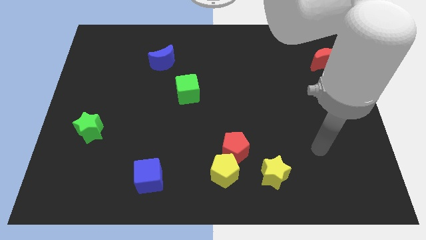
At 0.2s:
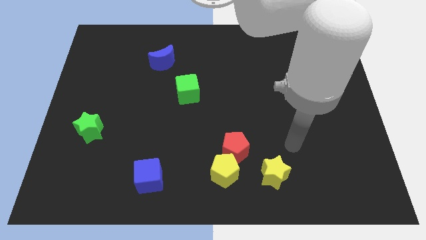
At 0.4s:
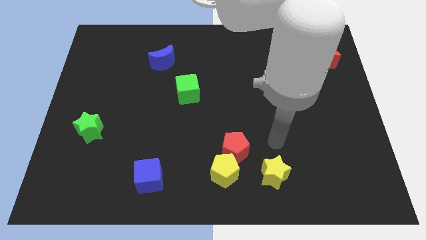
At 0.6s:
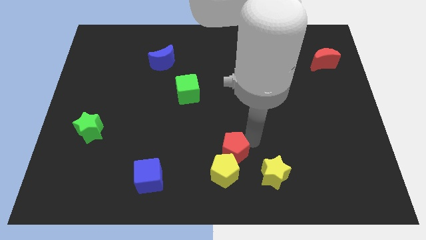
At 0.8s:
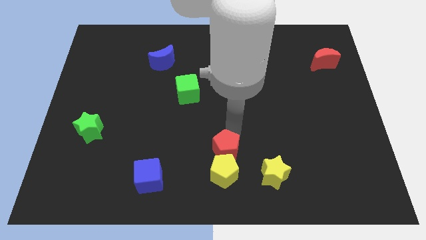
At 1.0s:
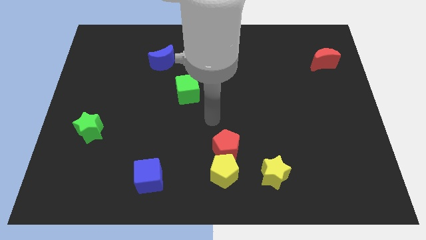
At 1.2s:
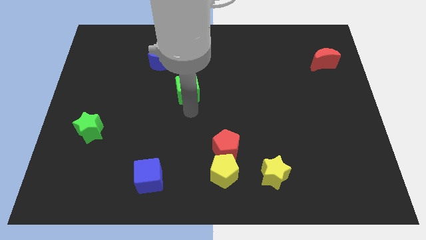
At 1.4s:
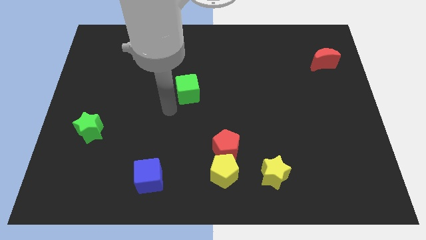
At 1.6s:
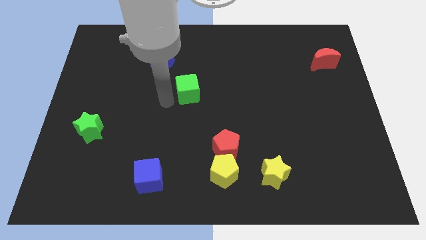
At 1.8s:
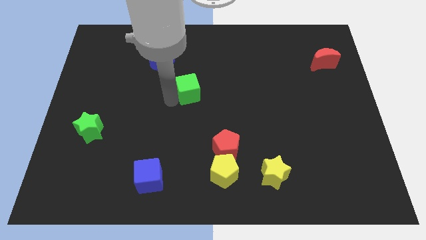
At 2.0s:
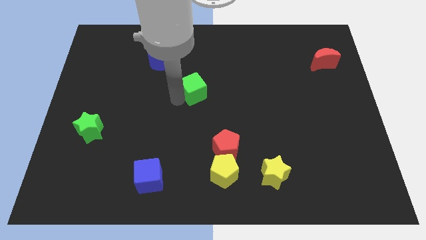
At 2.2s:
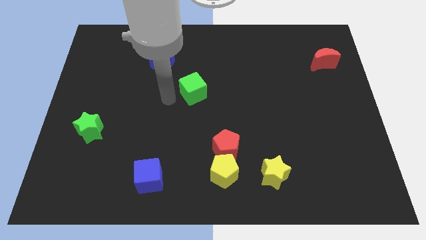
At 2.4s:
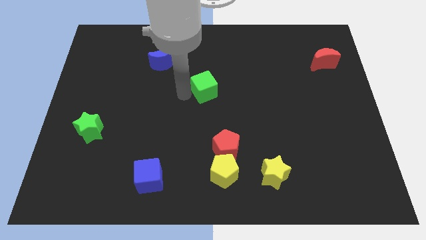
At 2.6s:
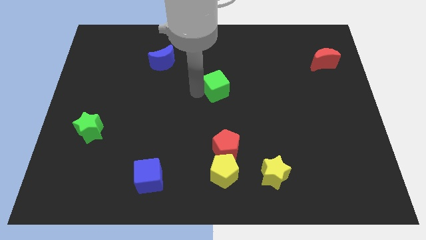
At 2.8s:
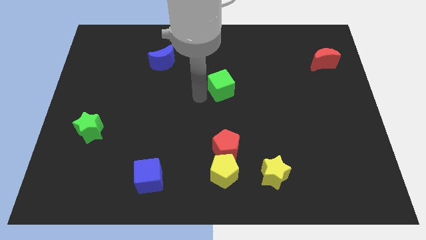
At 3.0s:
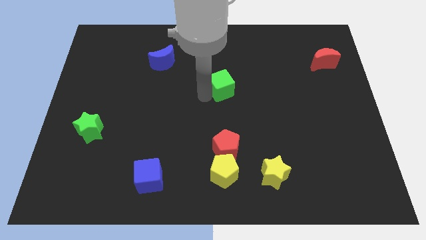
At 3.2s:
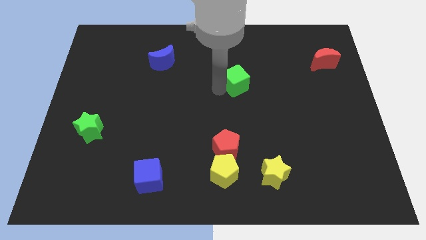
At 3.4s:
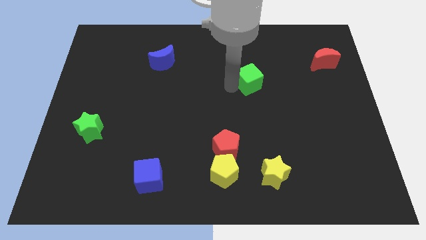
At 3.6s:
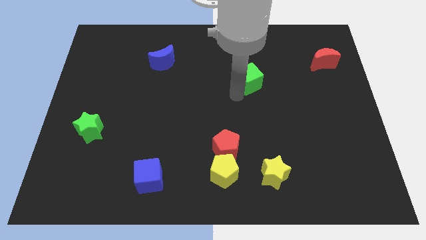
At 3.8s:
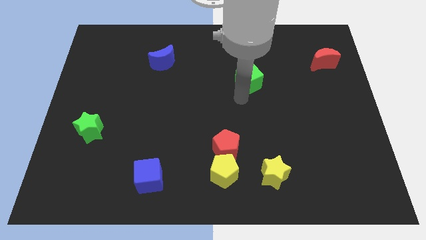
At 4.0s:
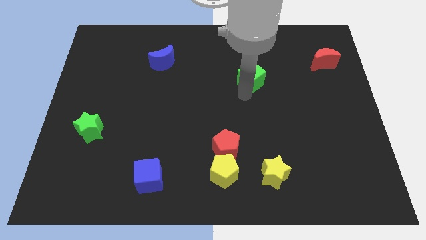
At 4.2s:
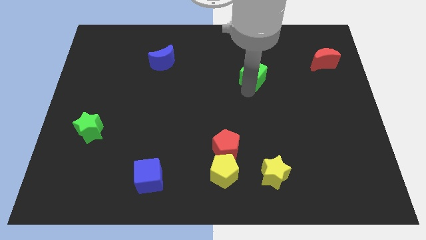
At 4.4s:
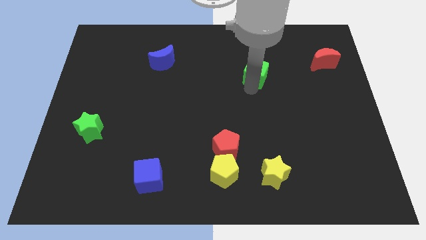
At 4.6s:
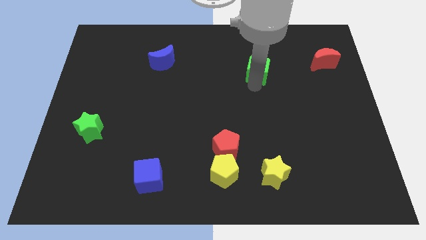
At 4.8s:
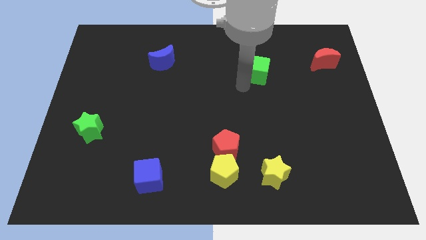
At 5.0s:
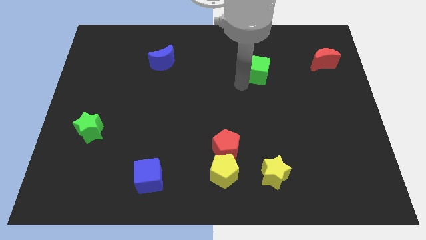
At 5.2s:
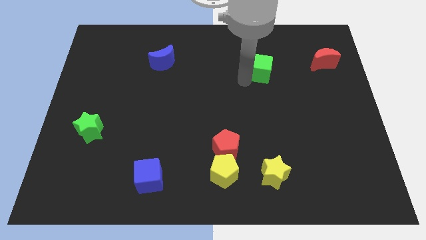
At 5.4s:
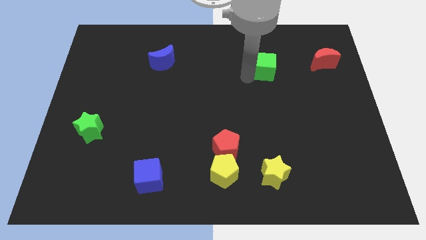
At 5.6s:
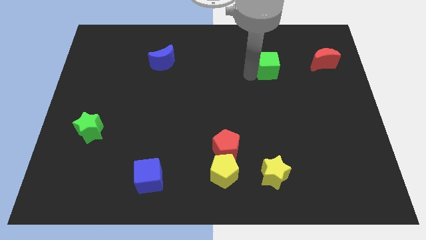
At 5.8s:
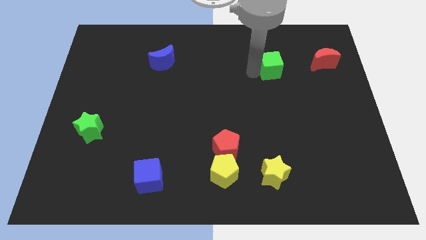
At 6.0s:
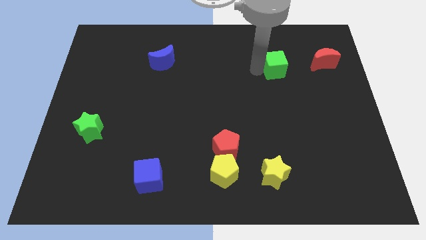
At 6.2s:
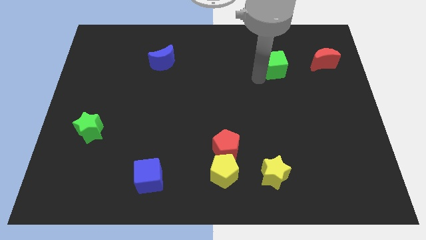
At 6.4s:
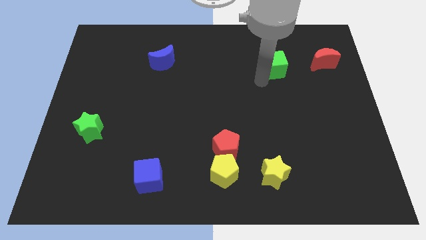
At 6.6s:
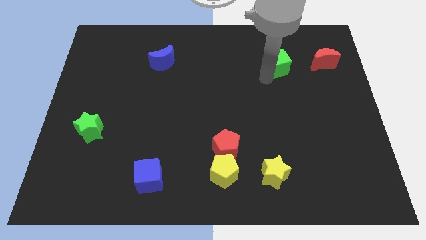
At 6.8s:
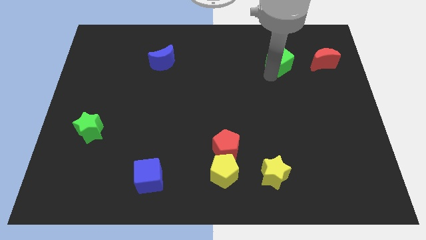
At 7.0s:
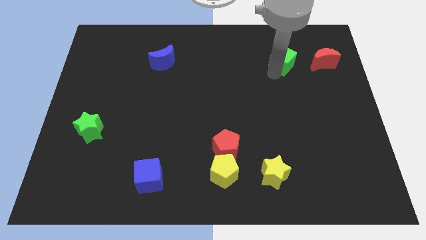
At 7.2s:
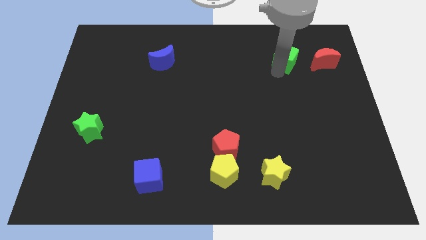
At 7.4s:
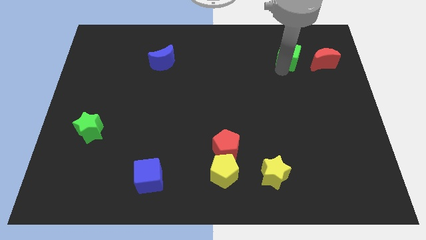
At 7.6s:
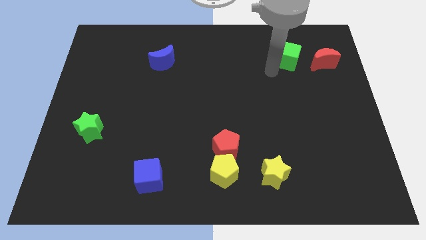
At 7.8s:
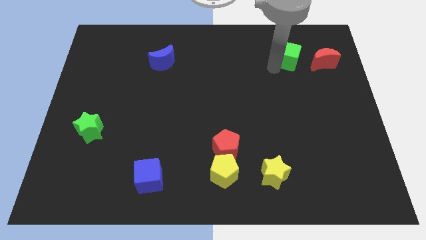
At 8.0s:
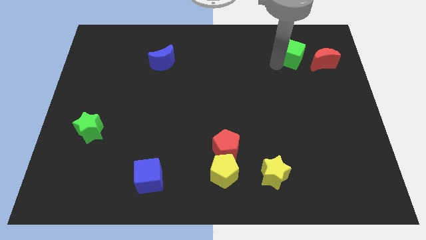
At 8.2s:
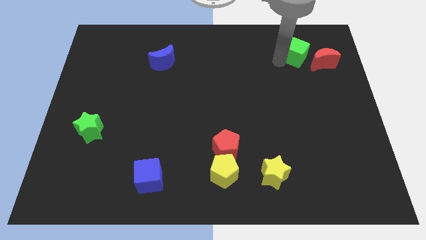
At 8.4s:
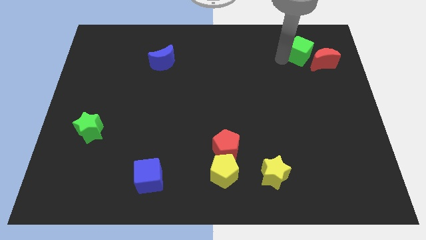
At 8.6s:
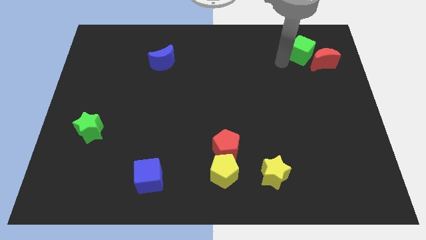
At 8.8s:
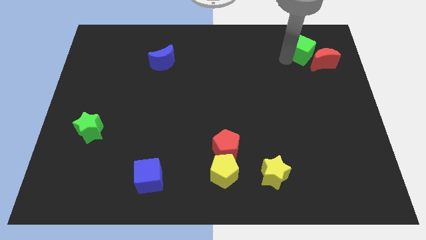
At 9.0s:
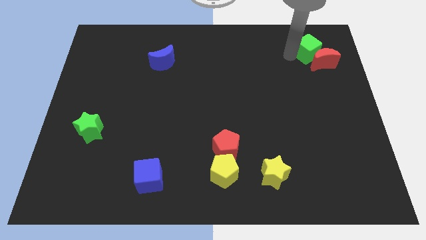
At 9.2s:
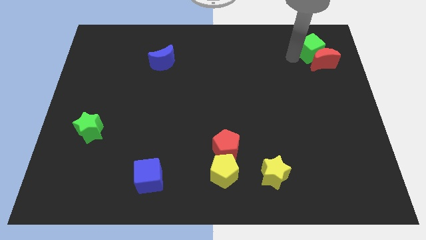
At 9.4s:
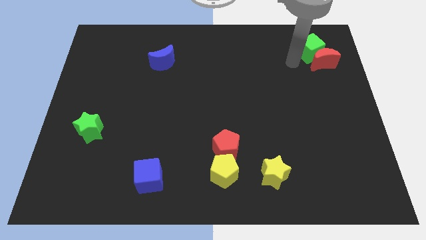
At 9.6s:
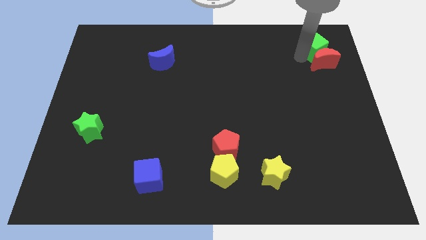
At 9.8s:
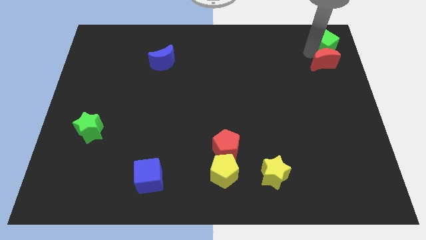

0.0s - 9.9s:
slide the green cube to the upper right corner

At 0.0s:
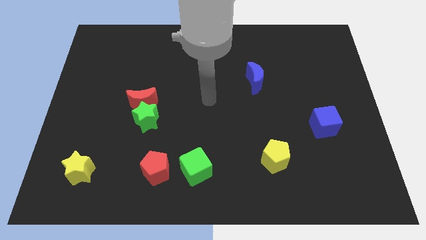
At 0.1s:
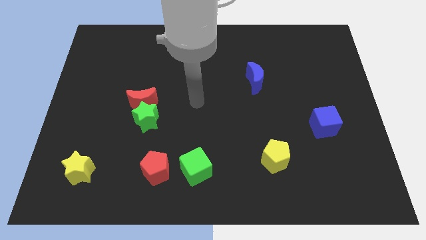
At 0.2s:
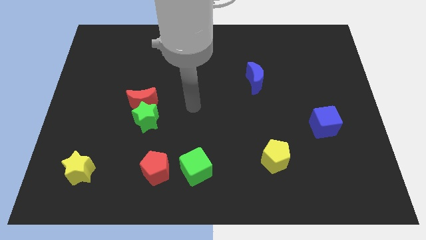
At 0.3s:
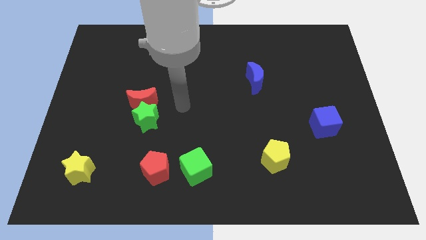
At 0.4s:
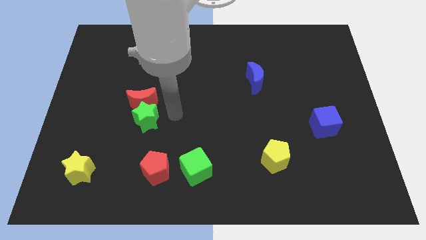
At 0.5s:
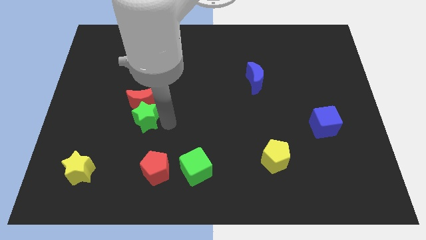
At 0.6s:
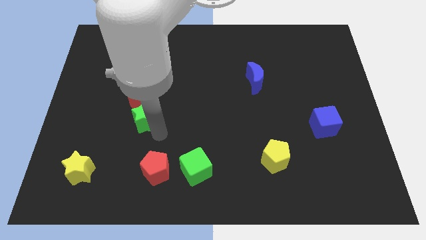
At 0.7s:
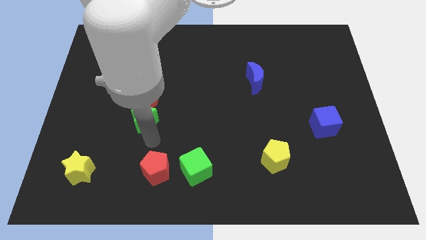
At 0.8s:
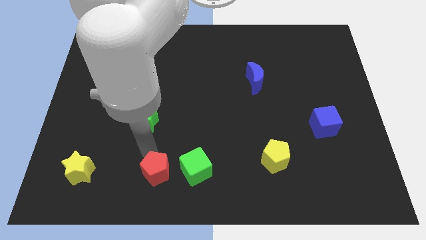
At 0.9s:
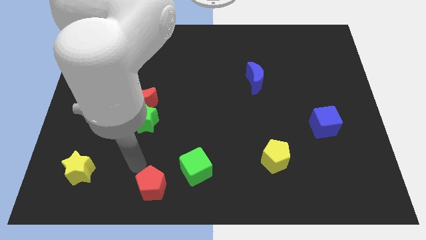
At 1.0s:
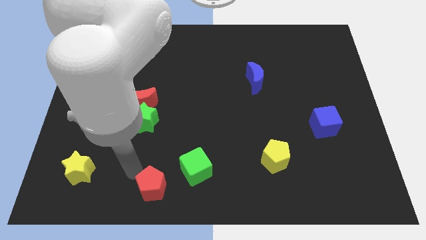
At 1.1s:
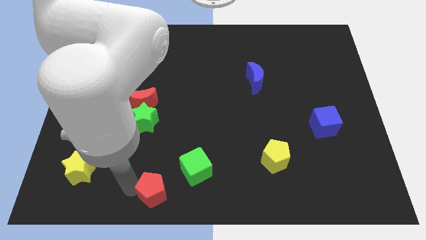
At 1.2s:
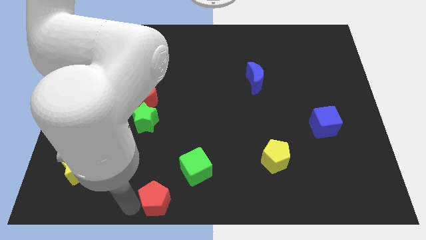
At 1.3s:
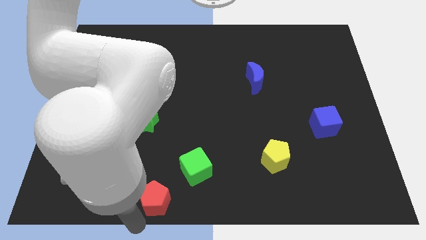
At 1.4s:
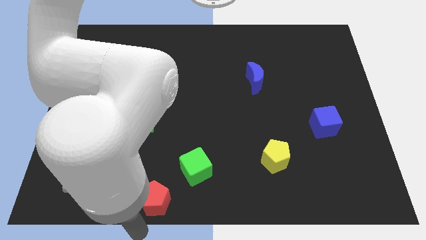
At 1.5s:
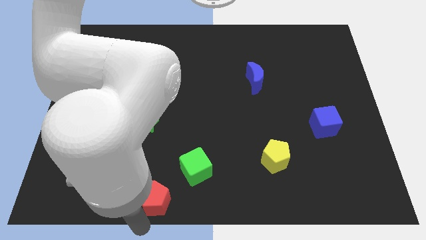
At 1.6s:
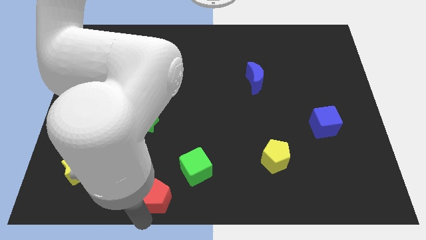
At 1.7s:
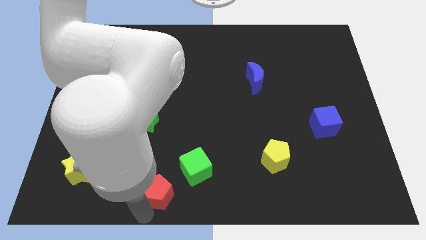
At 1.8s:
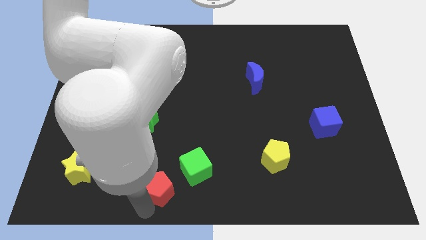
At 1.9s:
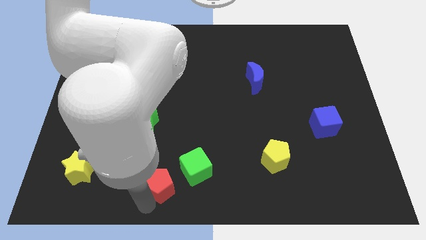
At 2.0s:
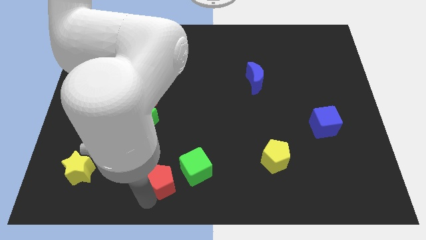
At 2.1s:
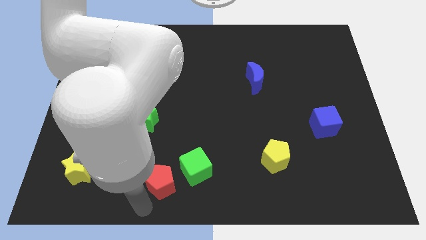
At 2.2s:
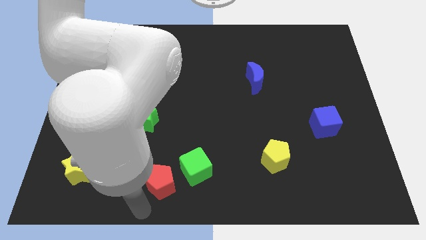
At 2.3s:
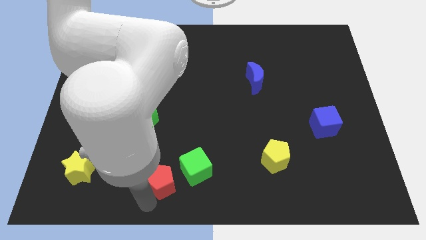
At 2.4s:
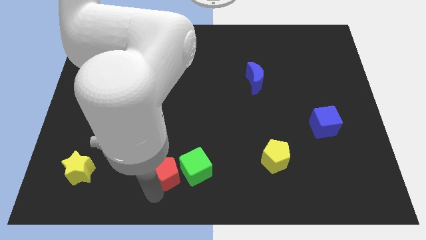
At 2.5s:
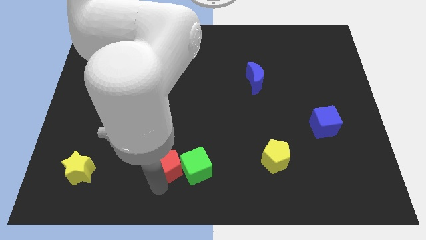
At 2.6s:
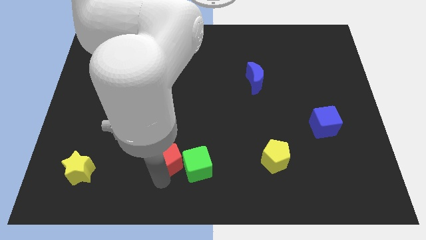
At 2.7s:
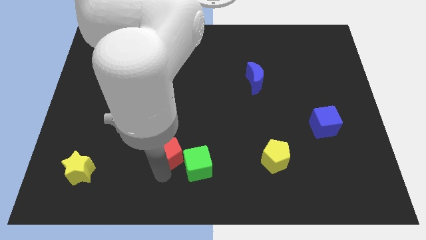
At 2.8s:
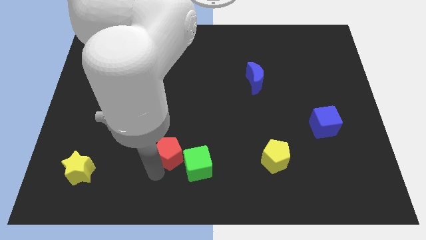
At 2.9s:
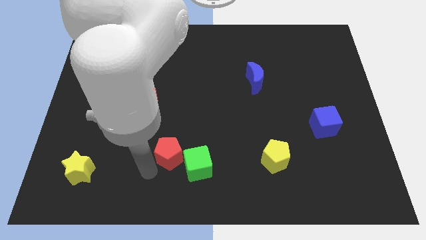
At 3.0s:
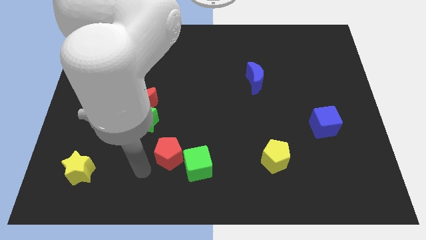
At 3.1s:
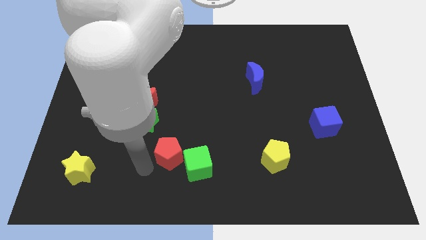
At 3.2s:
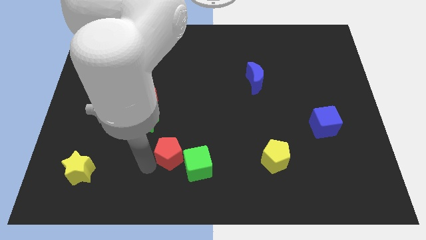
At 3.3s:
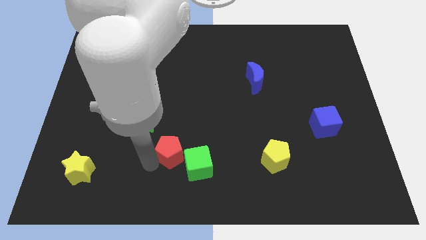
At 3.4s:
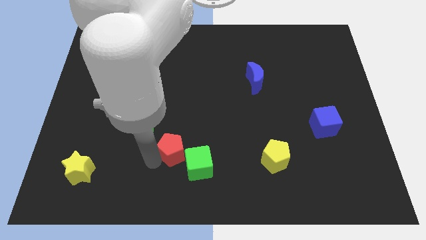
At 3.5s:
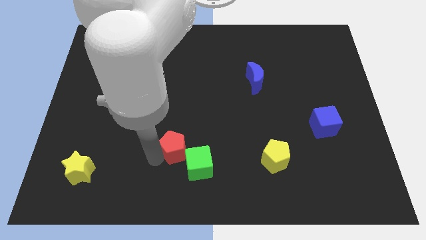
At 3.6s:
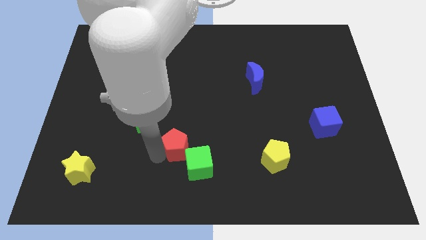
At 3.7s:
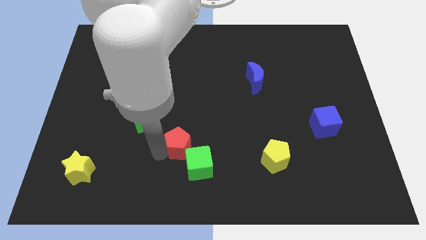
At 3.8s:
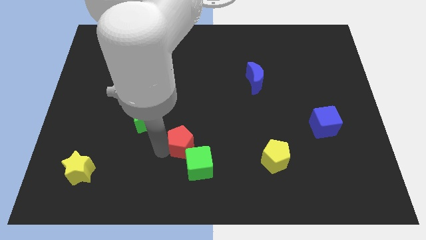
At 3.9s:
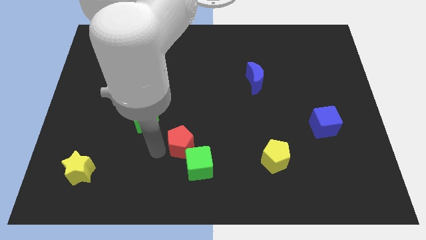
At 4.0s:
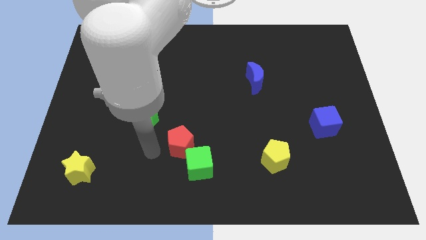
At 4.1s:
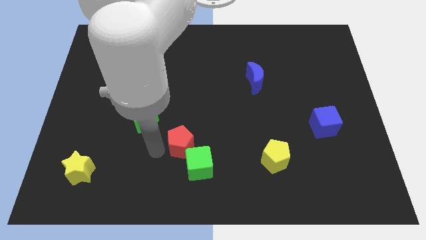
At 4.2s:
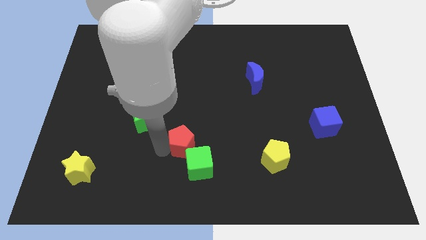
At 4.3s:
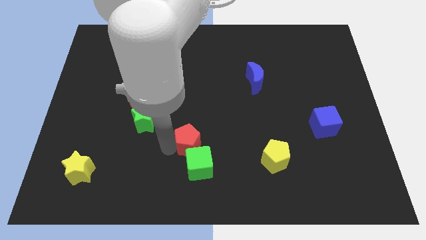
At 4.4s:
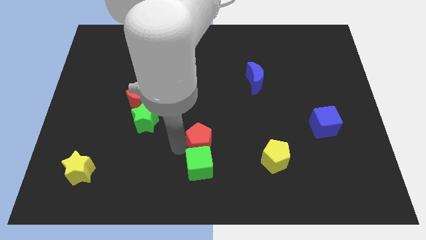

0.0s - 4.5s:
slide the red pentagon to the center of the board
